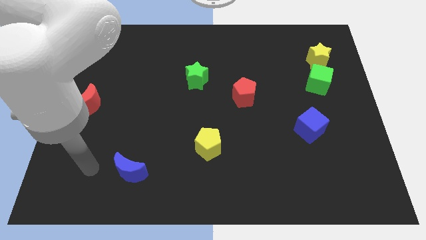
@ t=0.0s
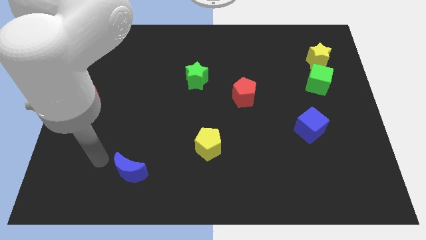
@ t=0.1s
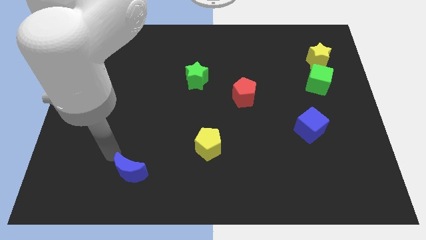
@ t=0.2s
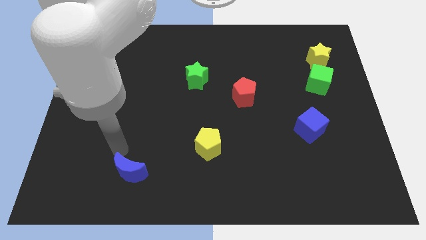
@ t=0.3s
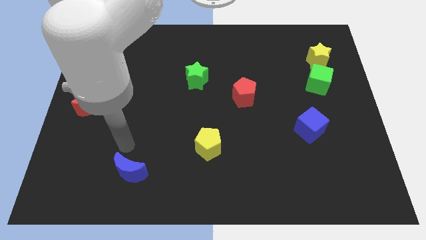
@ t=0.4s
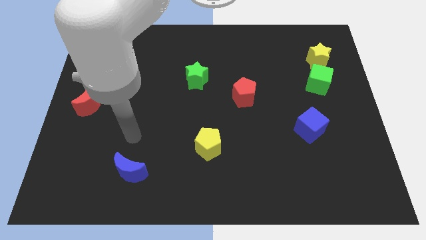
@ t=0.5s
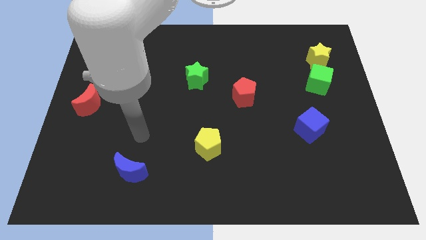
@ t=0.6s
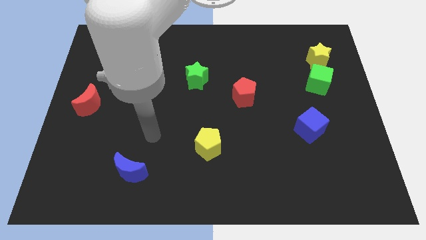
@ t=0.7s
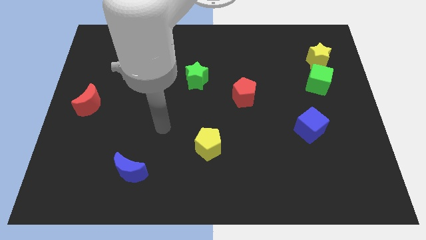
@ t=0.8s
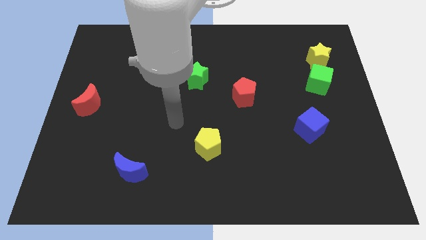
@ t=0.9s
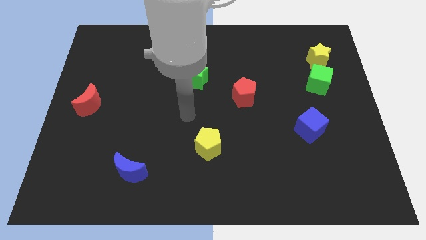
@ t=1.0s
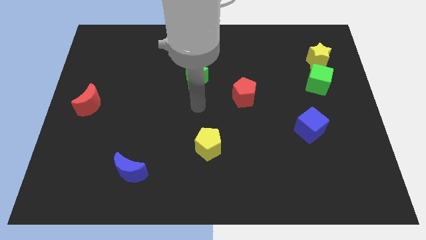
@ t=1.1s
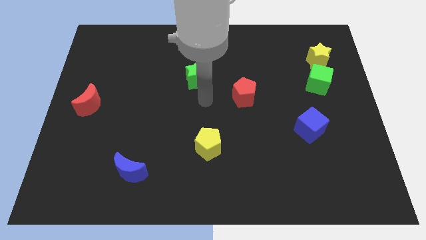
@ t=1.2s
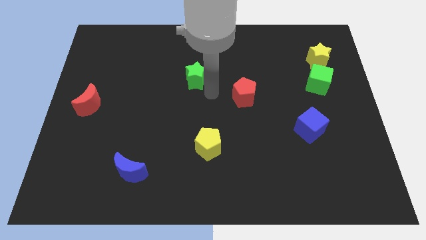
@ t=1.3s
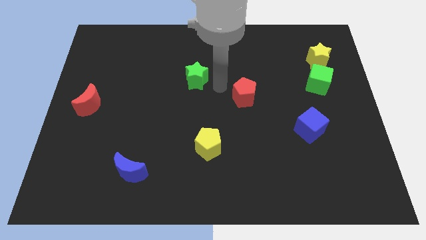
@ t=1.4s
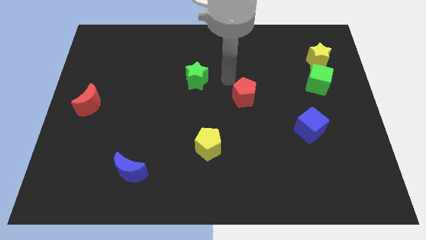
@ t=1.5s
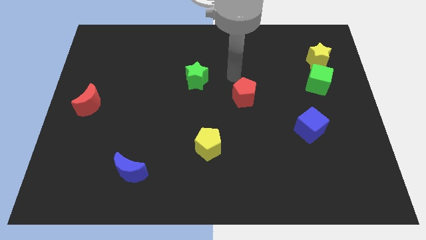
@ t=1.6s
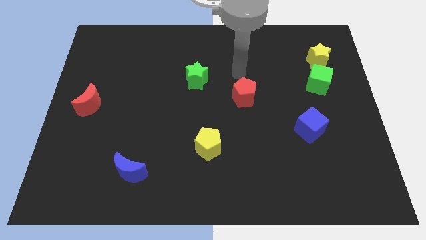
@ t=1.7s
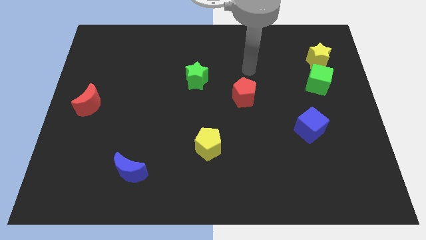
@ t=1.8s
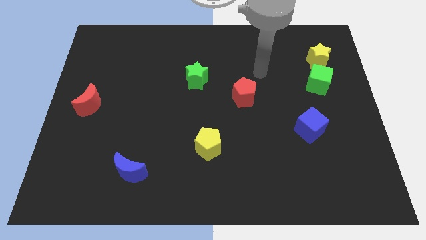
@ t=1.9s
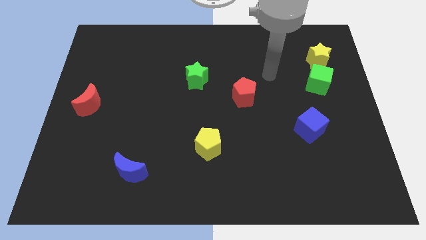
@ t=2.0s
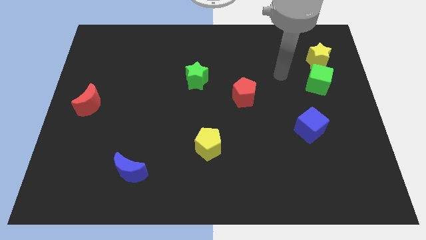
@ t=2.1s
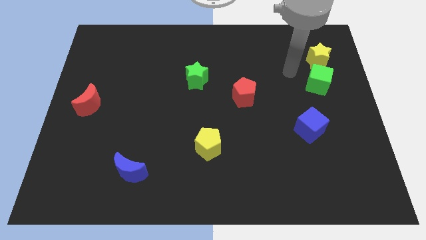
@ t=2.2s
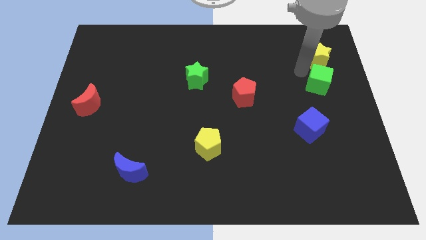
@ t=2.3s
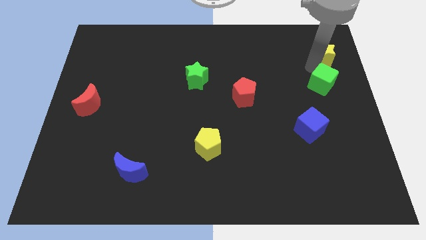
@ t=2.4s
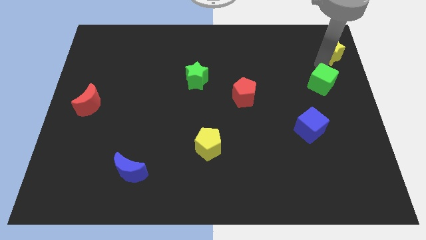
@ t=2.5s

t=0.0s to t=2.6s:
move the green cube away from the yellow star

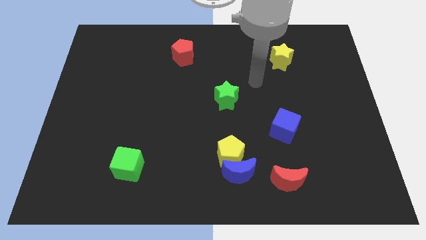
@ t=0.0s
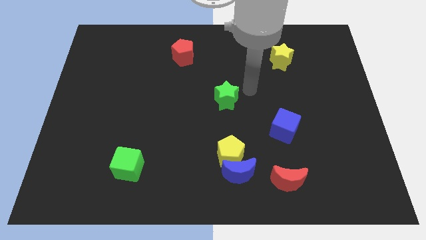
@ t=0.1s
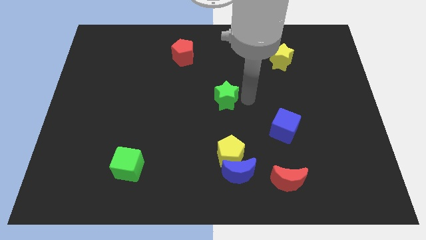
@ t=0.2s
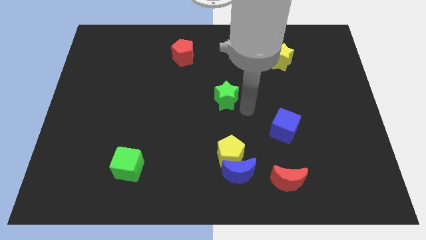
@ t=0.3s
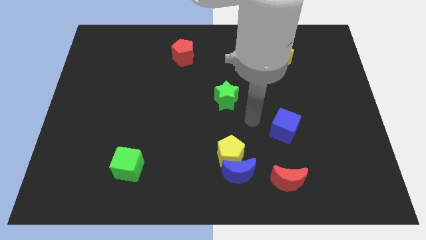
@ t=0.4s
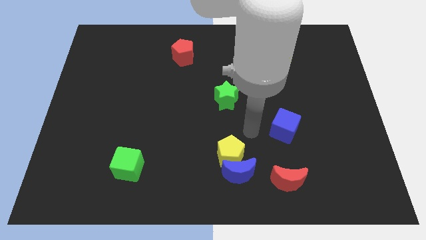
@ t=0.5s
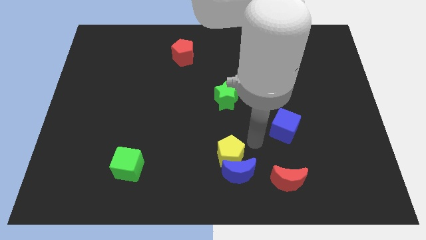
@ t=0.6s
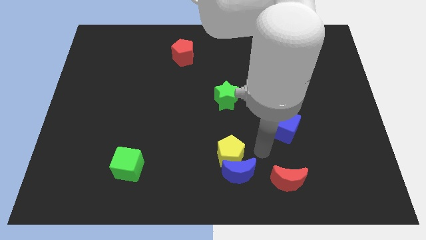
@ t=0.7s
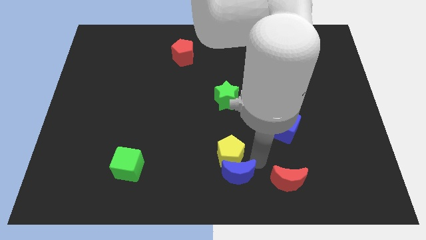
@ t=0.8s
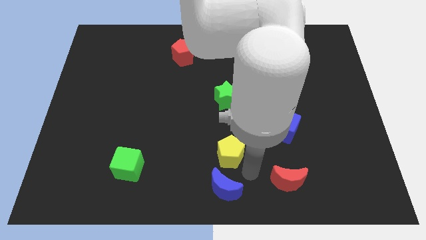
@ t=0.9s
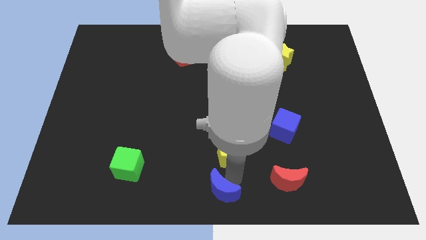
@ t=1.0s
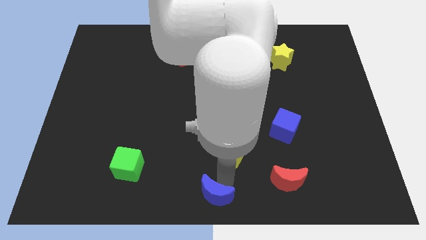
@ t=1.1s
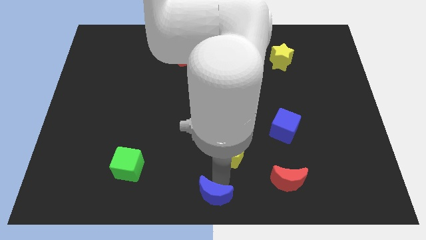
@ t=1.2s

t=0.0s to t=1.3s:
pull the yellow pentagon apart from the blue moon

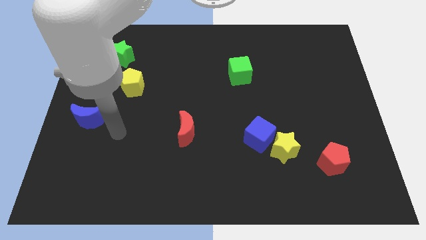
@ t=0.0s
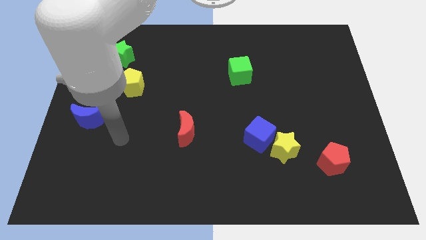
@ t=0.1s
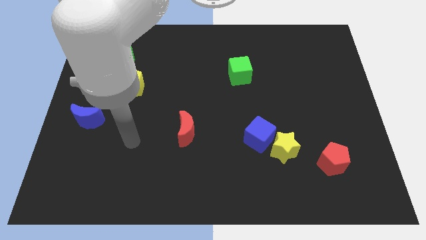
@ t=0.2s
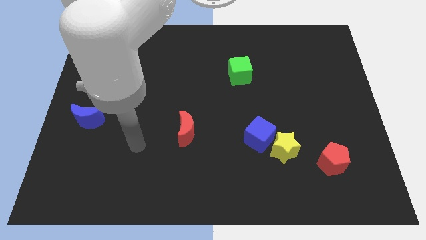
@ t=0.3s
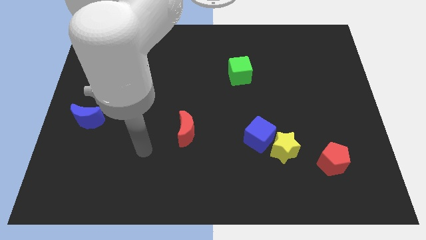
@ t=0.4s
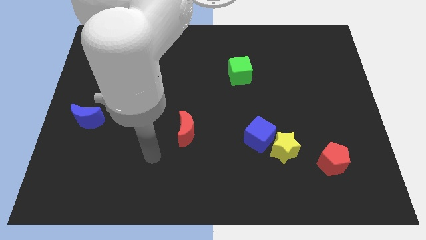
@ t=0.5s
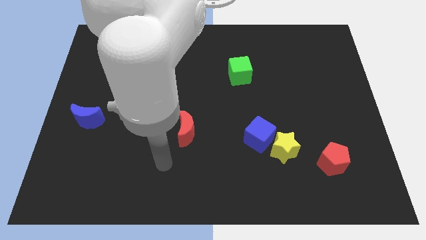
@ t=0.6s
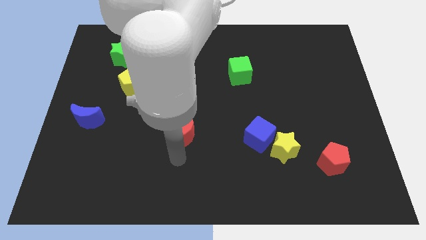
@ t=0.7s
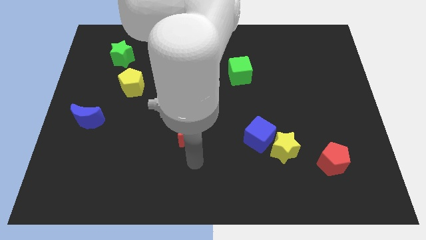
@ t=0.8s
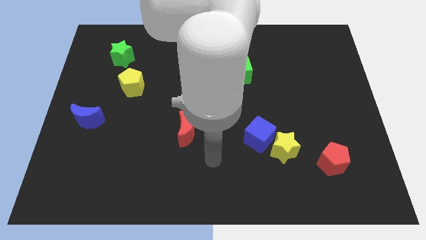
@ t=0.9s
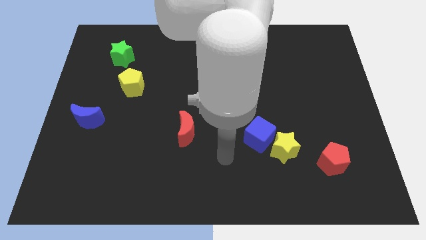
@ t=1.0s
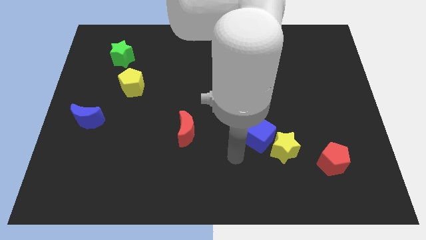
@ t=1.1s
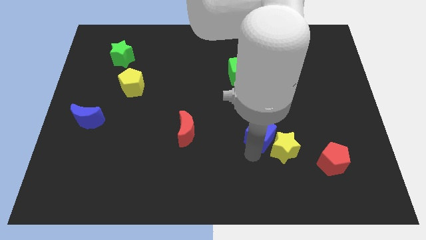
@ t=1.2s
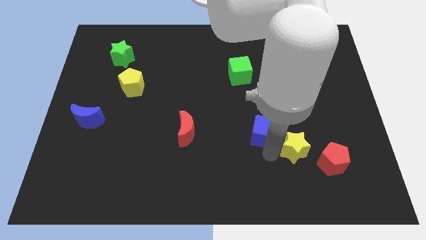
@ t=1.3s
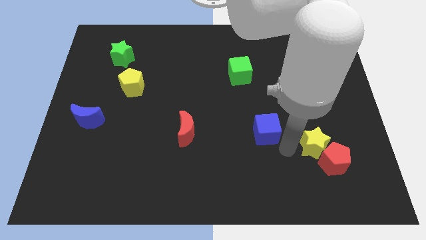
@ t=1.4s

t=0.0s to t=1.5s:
pull the blue cube apart from the yellow star

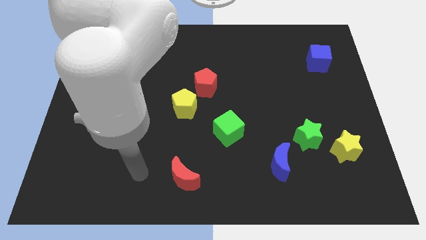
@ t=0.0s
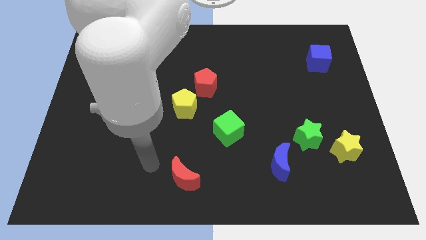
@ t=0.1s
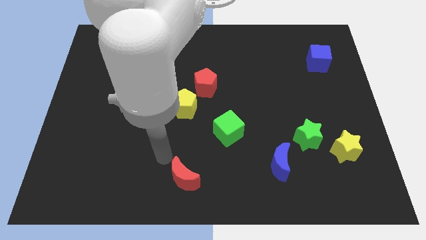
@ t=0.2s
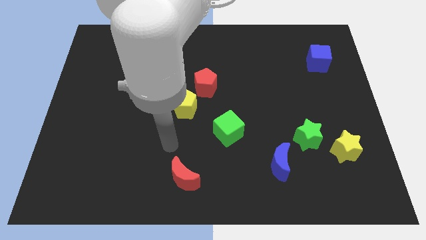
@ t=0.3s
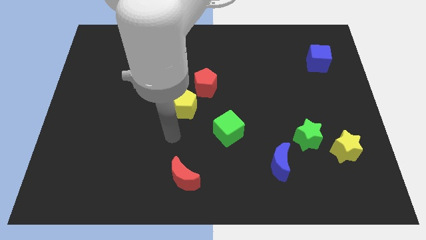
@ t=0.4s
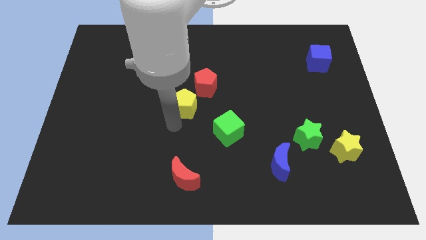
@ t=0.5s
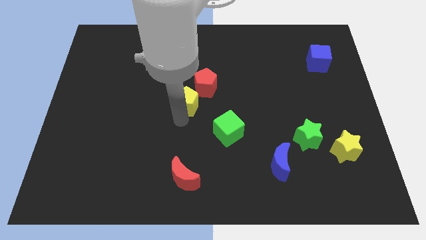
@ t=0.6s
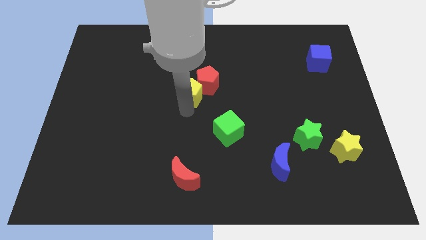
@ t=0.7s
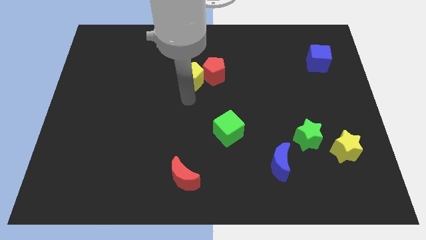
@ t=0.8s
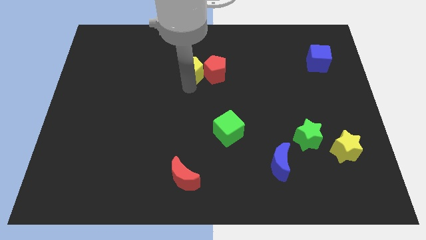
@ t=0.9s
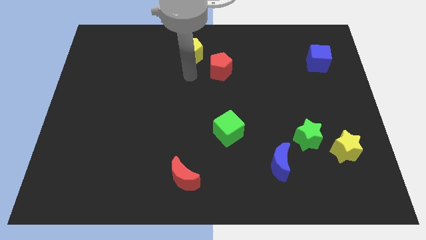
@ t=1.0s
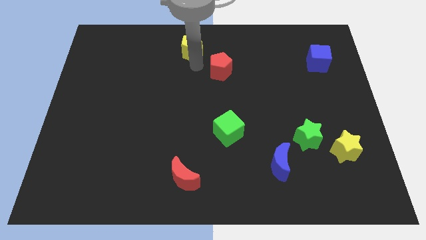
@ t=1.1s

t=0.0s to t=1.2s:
move the red pentagon away from the yellow pentagon

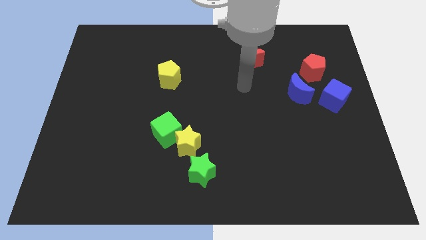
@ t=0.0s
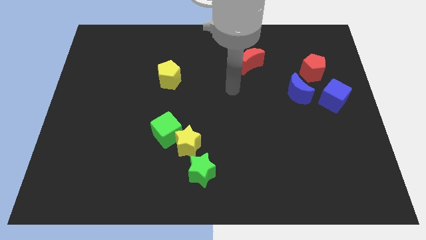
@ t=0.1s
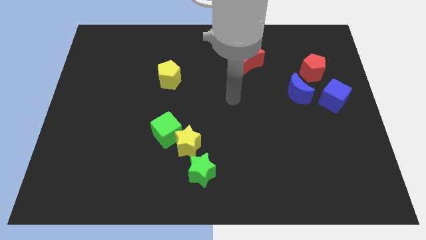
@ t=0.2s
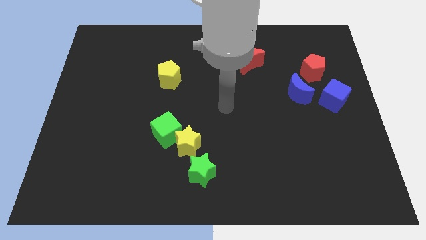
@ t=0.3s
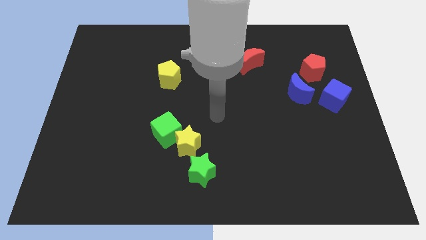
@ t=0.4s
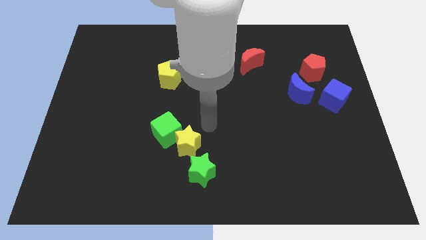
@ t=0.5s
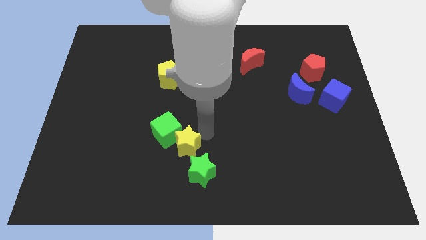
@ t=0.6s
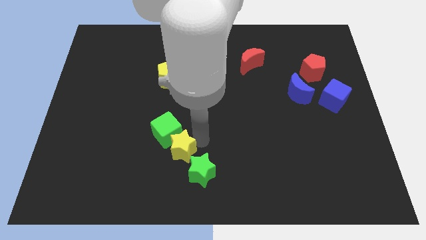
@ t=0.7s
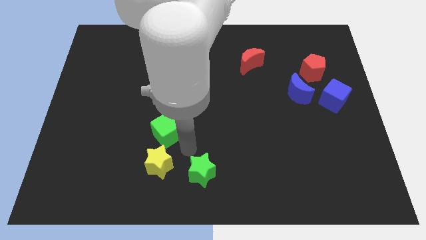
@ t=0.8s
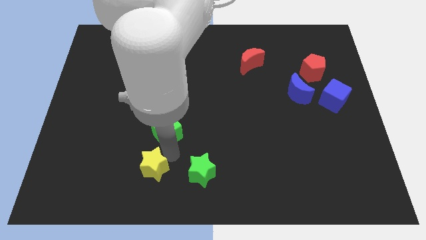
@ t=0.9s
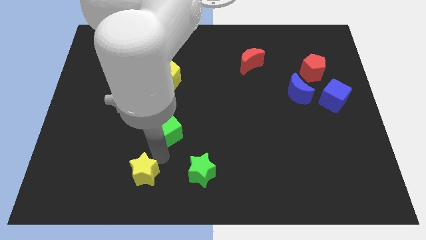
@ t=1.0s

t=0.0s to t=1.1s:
pull the green cube apart from the yellow star

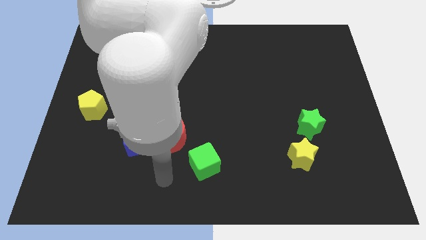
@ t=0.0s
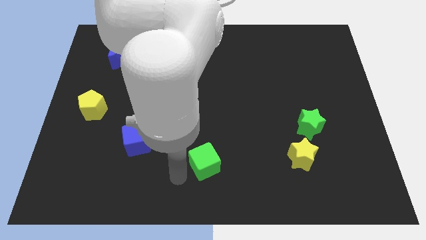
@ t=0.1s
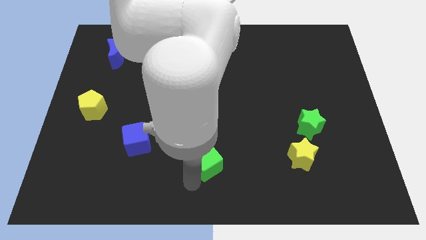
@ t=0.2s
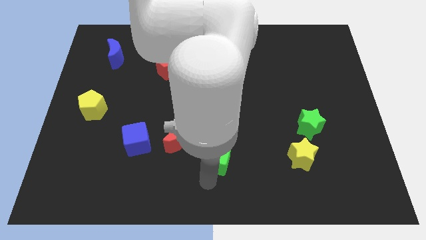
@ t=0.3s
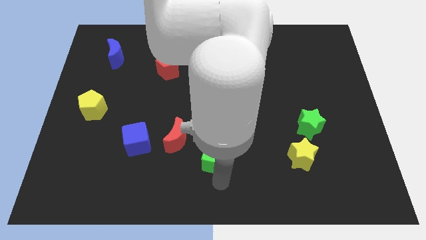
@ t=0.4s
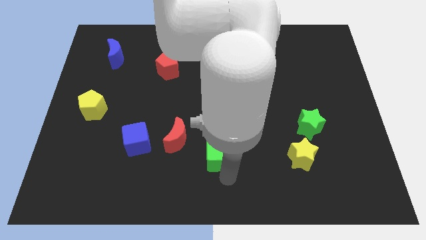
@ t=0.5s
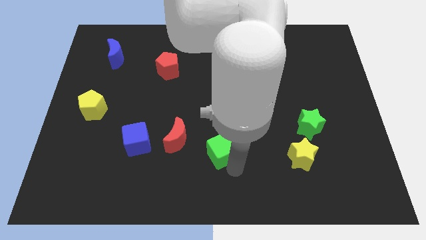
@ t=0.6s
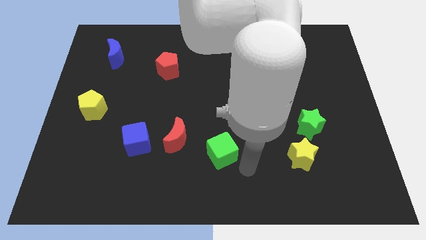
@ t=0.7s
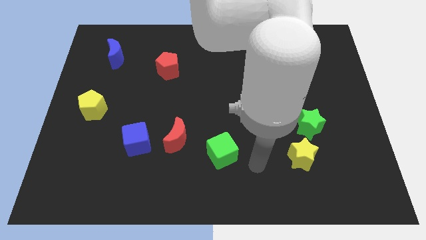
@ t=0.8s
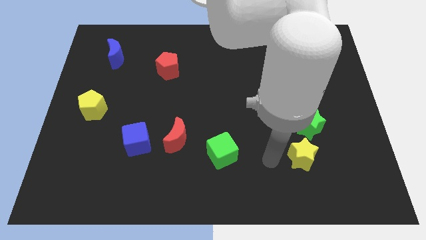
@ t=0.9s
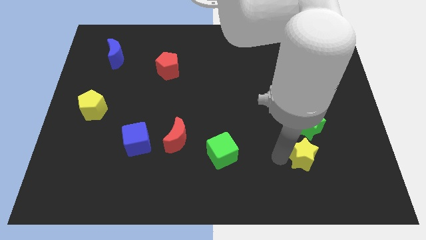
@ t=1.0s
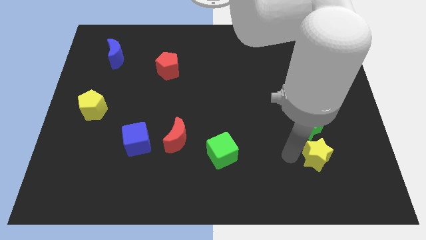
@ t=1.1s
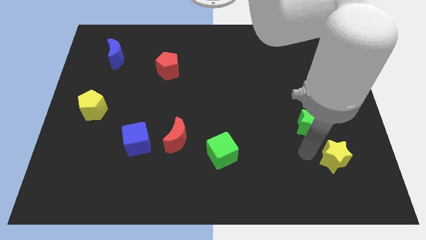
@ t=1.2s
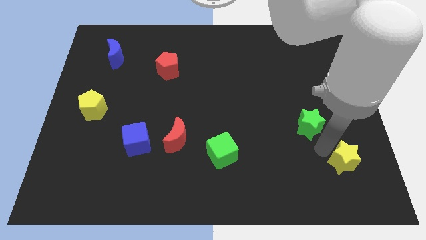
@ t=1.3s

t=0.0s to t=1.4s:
separate the green star from the yellow star

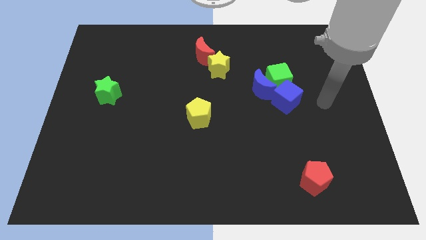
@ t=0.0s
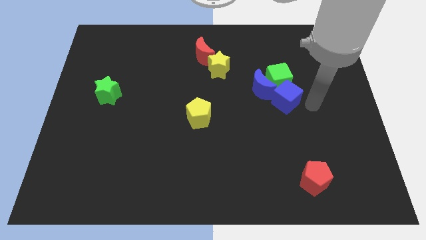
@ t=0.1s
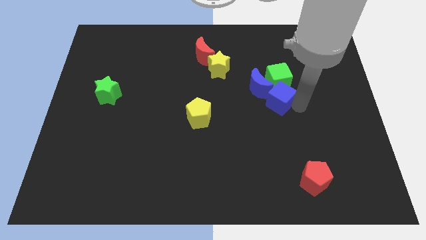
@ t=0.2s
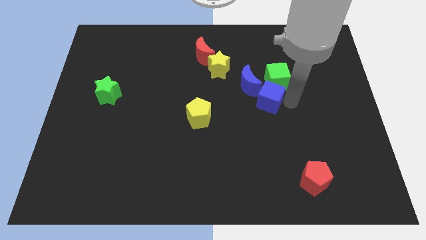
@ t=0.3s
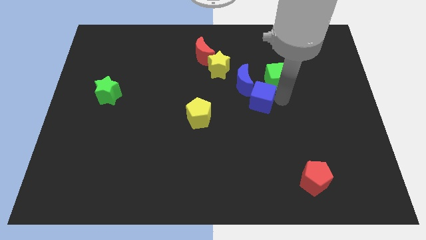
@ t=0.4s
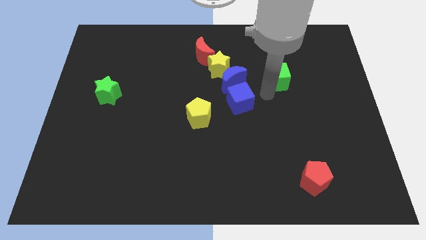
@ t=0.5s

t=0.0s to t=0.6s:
separate the green cube from the blue moon and blue cube
